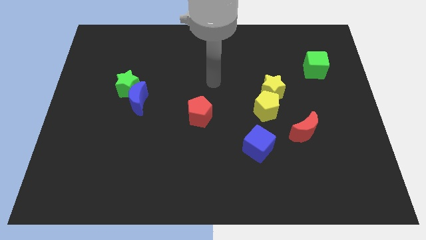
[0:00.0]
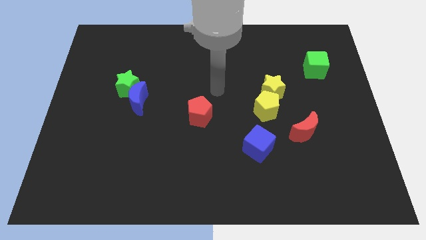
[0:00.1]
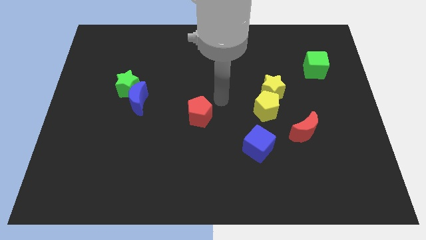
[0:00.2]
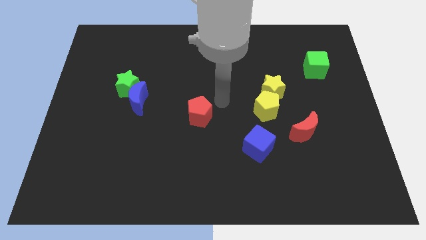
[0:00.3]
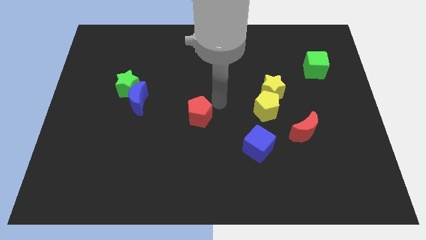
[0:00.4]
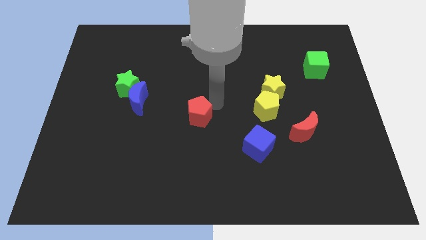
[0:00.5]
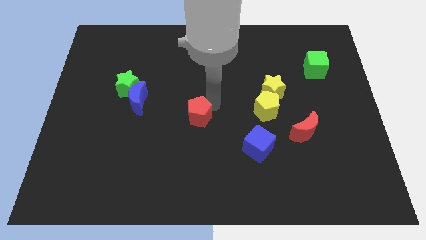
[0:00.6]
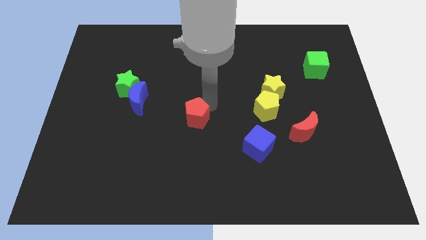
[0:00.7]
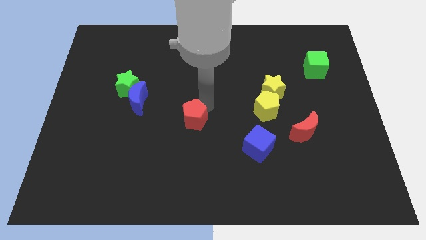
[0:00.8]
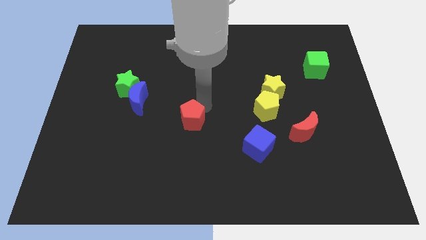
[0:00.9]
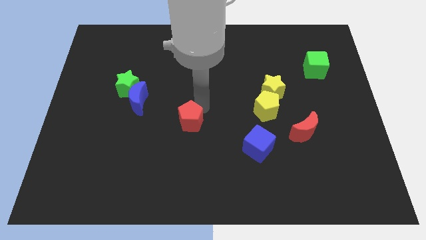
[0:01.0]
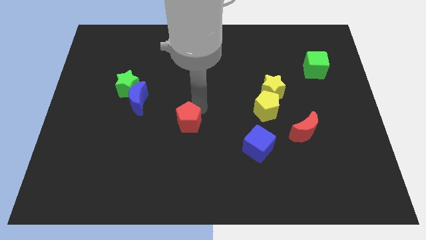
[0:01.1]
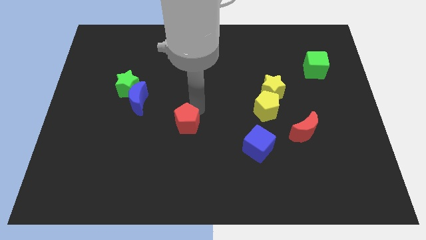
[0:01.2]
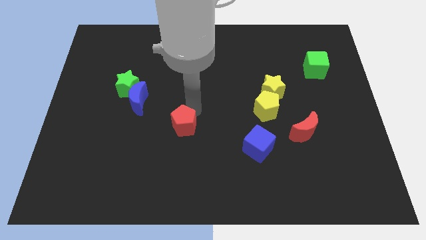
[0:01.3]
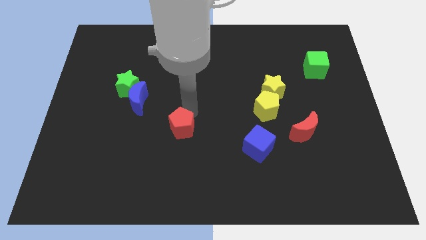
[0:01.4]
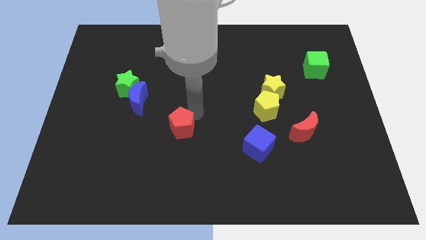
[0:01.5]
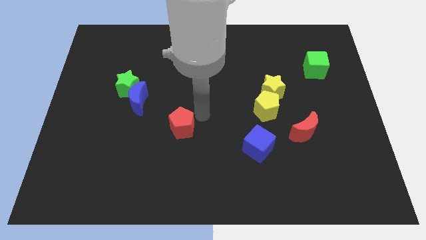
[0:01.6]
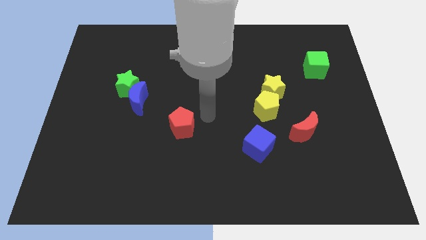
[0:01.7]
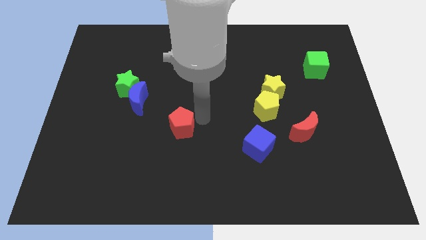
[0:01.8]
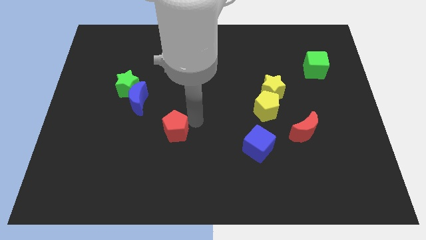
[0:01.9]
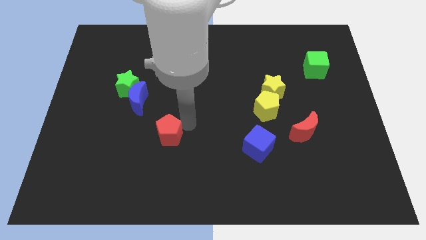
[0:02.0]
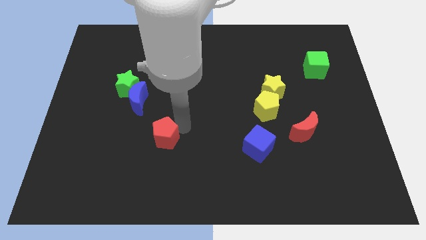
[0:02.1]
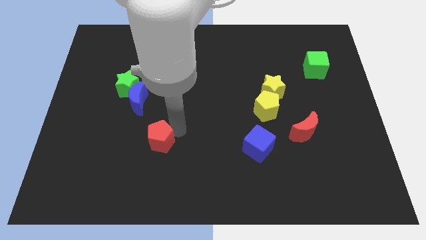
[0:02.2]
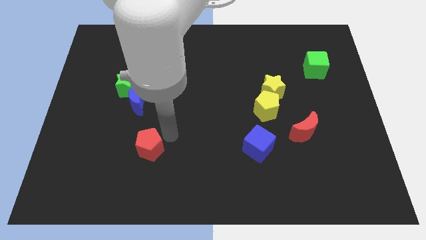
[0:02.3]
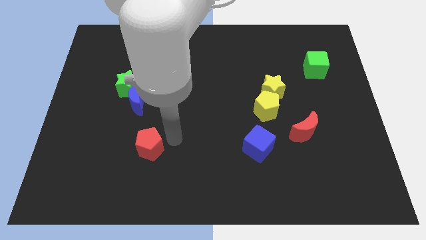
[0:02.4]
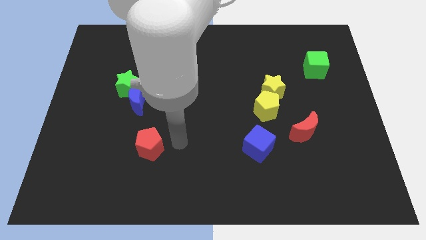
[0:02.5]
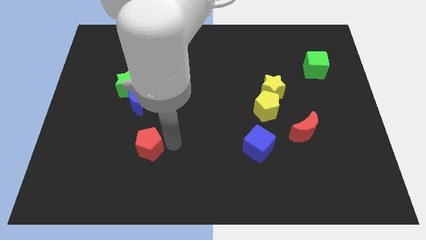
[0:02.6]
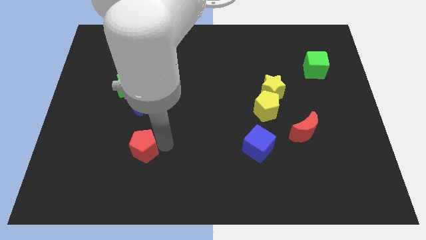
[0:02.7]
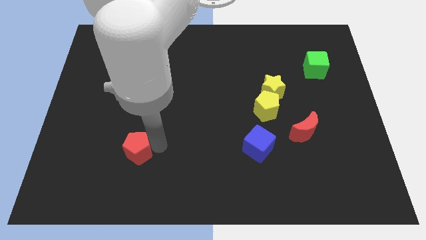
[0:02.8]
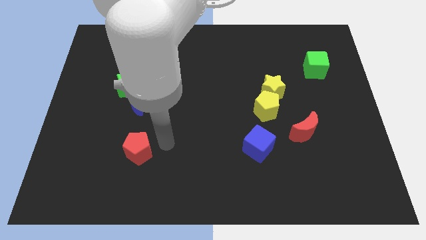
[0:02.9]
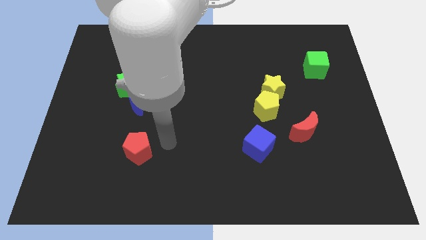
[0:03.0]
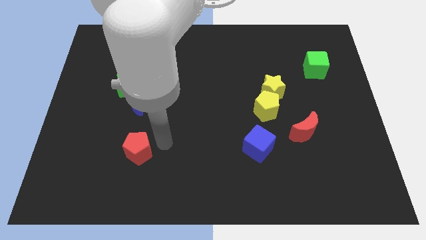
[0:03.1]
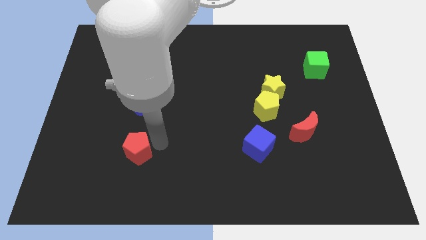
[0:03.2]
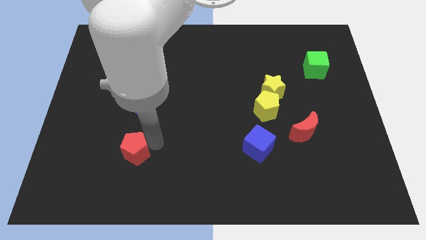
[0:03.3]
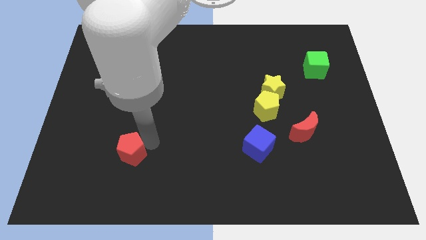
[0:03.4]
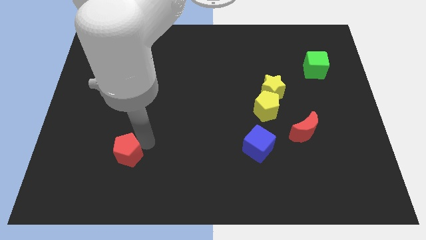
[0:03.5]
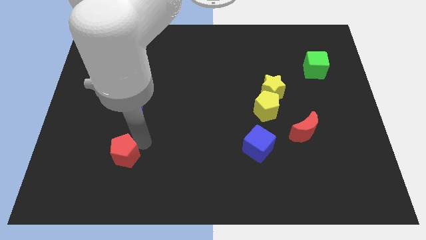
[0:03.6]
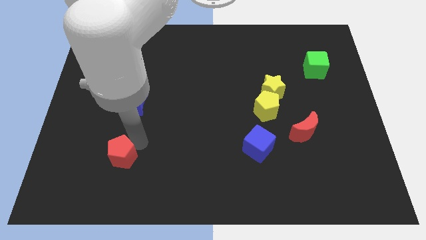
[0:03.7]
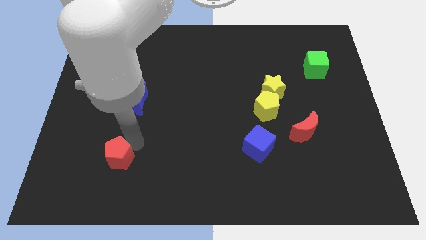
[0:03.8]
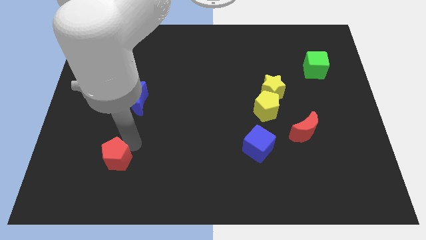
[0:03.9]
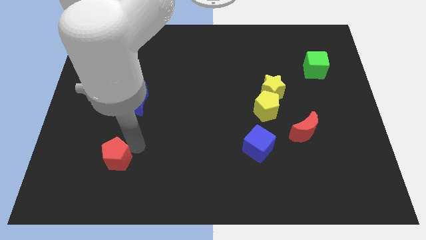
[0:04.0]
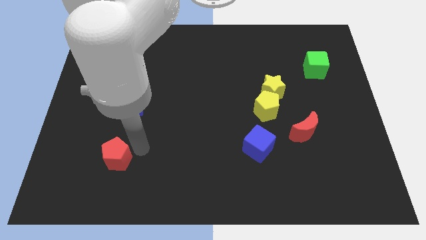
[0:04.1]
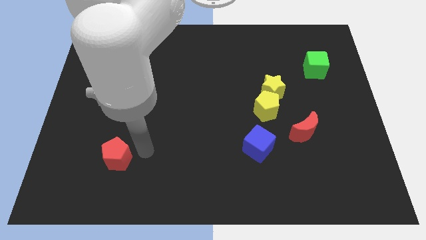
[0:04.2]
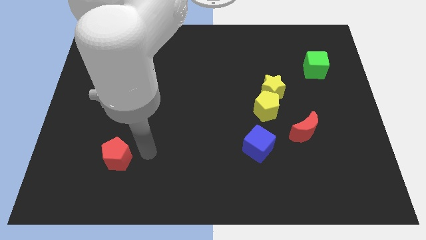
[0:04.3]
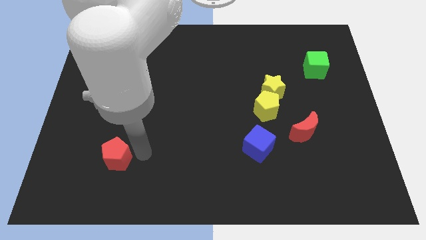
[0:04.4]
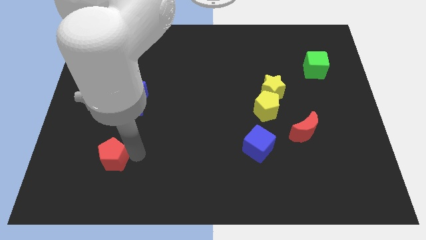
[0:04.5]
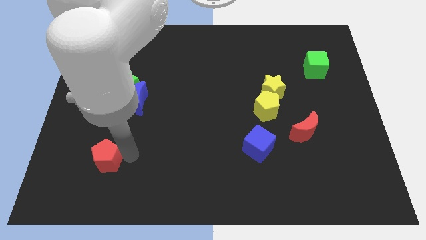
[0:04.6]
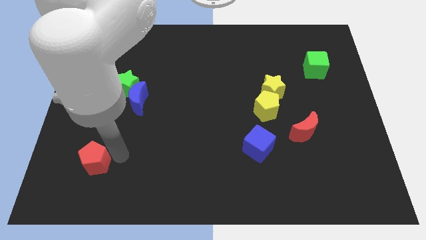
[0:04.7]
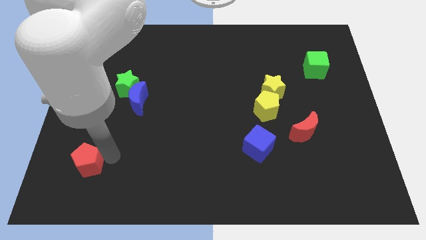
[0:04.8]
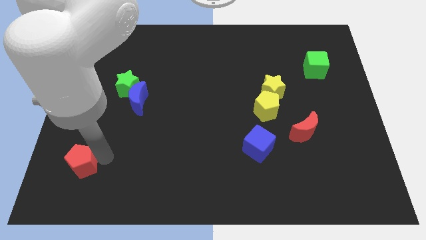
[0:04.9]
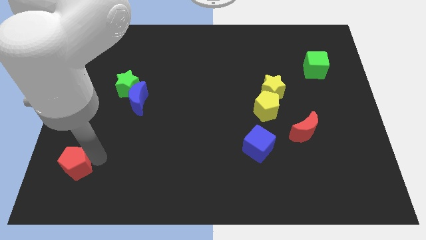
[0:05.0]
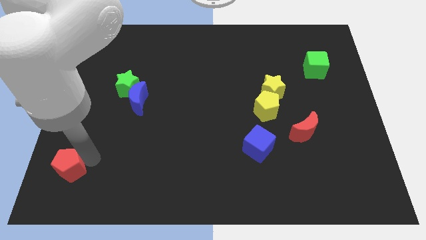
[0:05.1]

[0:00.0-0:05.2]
slide the red pentagon to the lower left corner

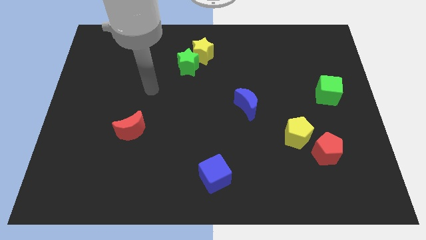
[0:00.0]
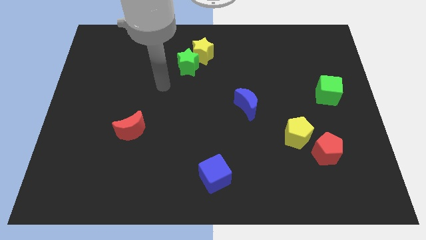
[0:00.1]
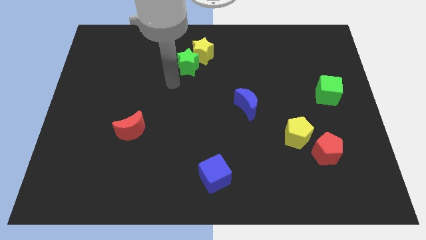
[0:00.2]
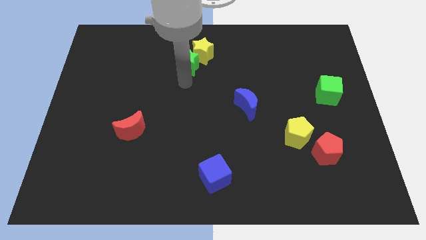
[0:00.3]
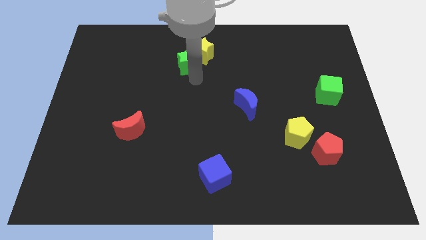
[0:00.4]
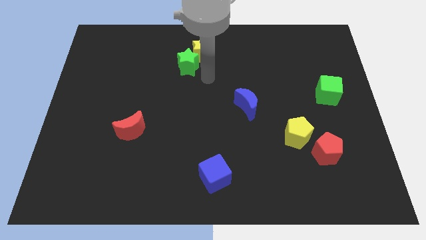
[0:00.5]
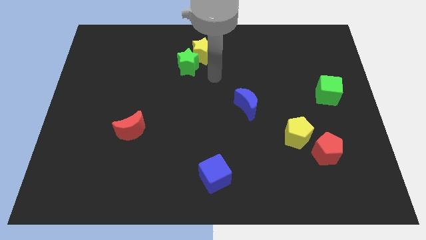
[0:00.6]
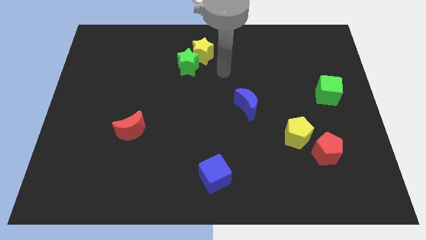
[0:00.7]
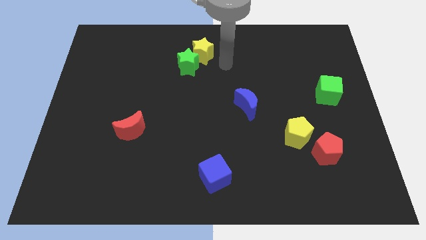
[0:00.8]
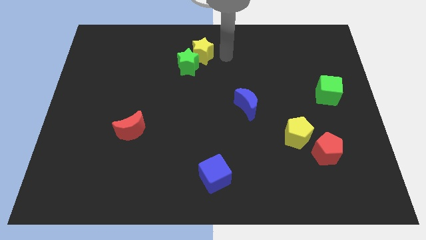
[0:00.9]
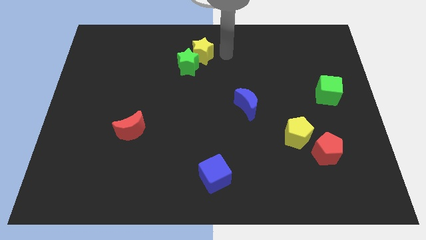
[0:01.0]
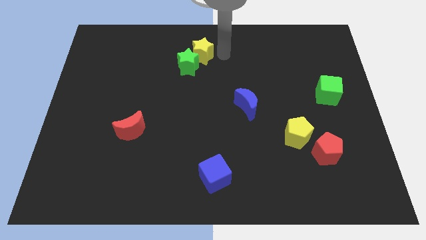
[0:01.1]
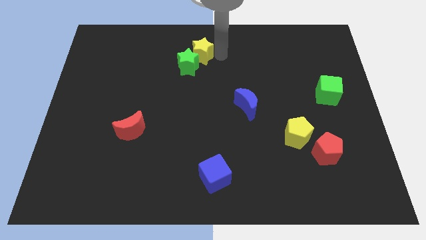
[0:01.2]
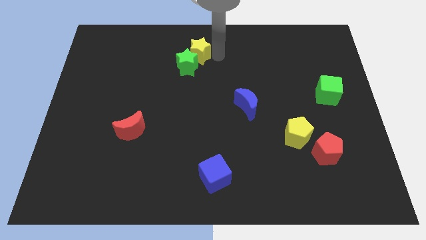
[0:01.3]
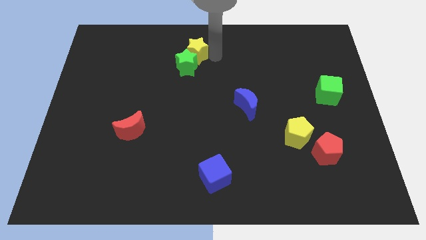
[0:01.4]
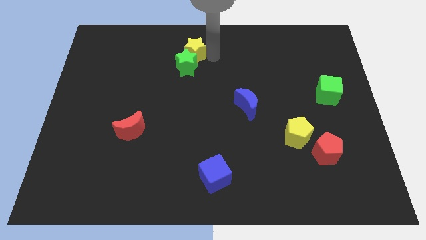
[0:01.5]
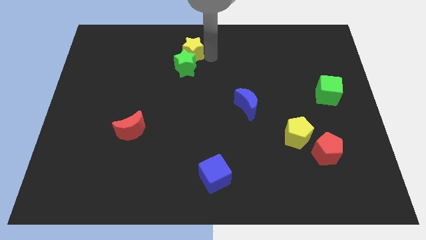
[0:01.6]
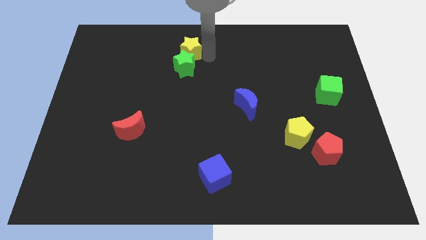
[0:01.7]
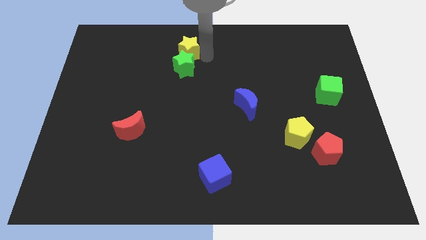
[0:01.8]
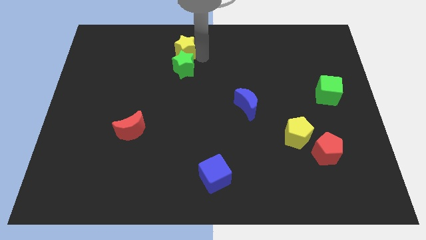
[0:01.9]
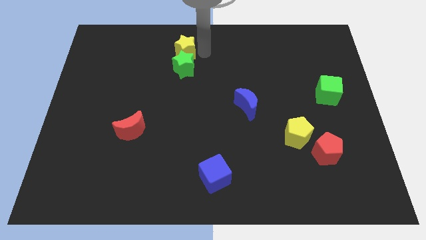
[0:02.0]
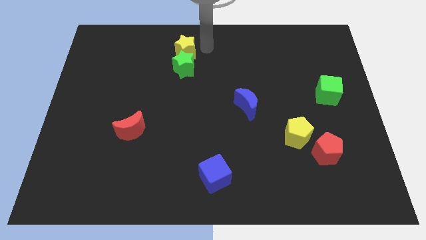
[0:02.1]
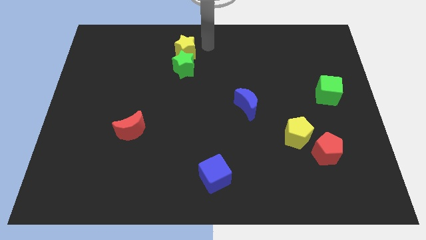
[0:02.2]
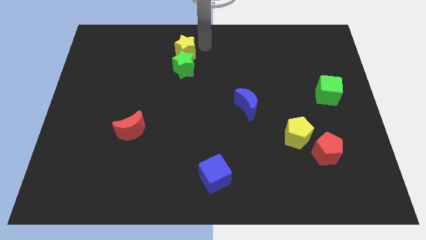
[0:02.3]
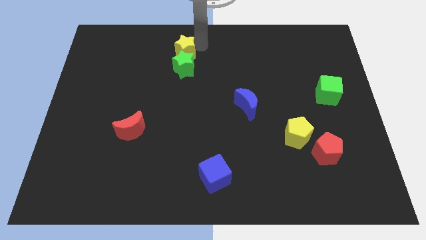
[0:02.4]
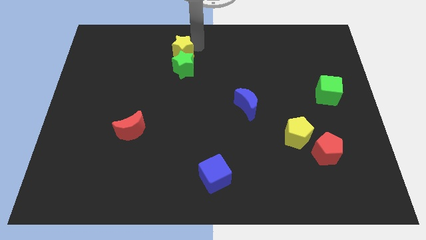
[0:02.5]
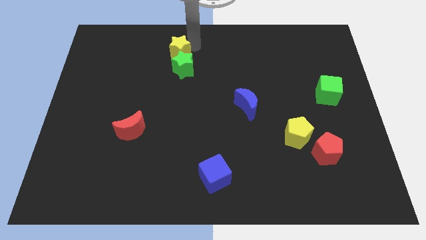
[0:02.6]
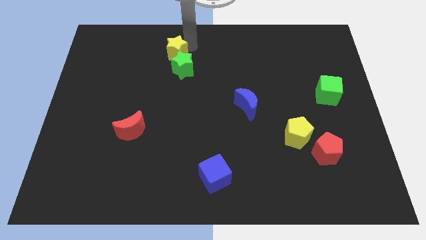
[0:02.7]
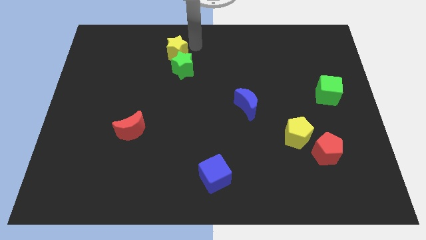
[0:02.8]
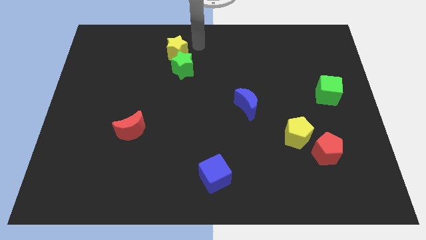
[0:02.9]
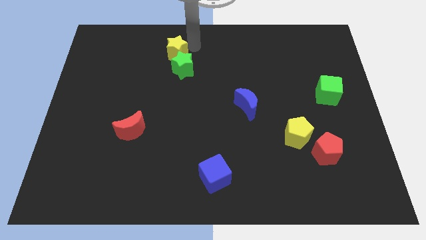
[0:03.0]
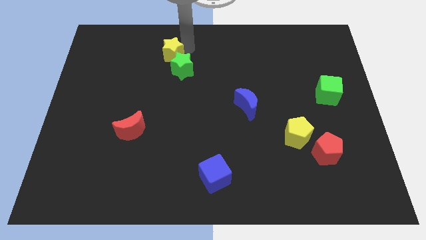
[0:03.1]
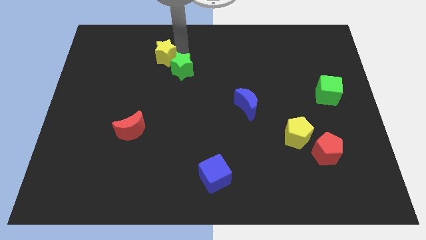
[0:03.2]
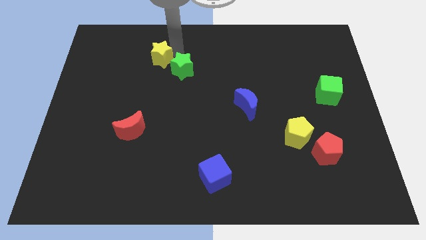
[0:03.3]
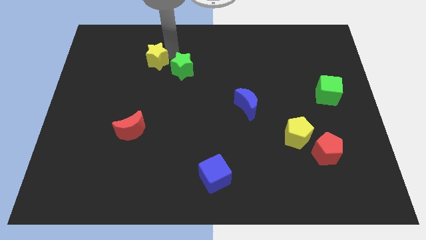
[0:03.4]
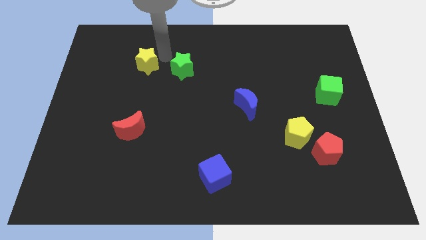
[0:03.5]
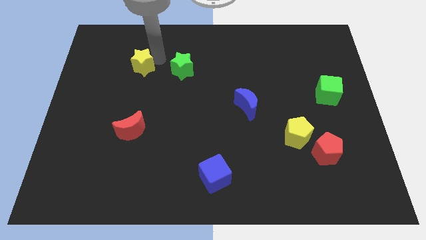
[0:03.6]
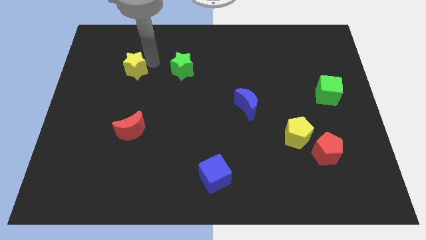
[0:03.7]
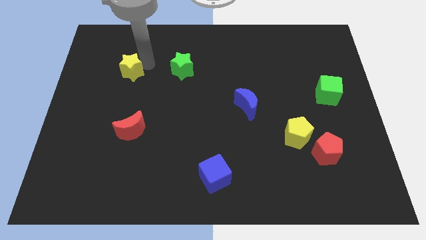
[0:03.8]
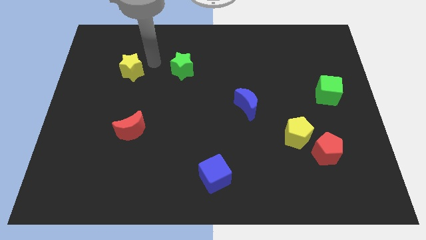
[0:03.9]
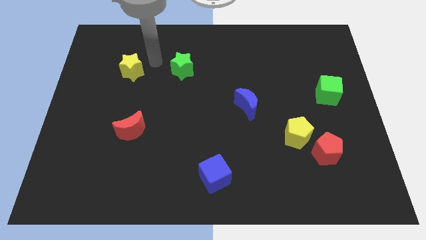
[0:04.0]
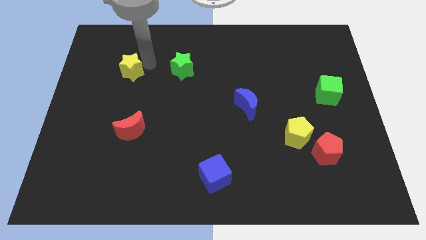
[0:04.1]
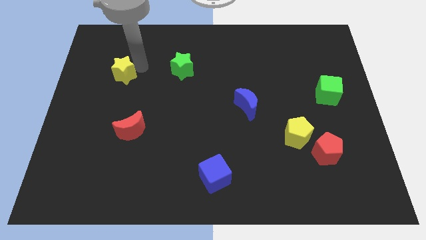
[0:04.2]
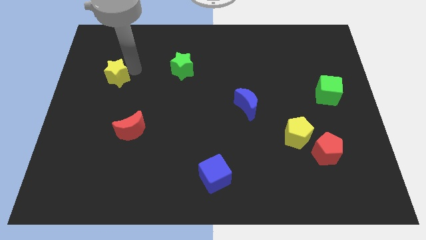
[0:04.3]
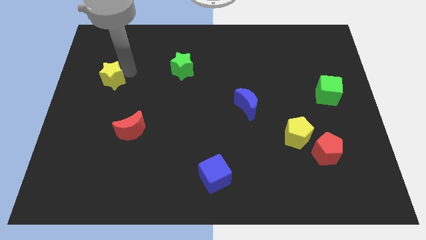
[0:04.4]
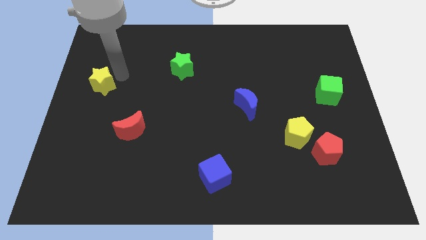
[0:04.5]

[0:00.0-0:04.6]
move the yellow star to the left side
